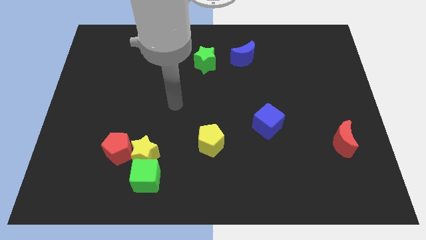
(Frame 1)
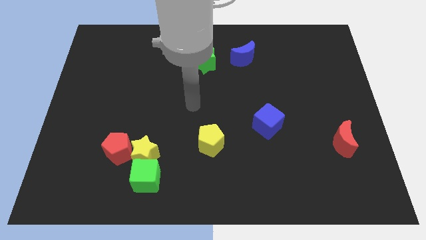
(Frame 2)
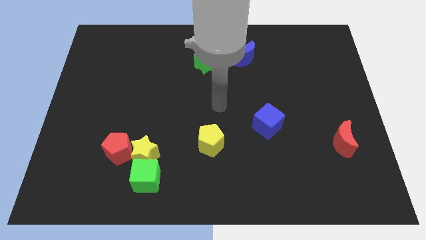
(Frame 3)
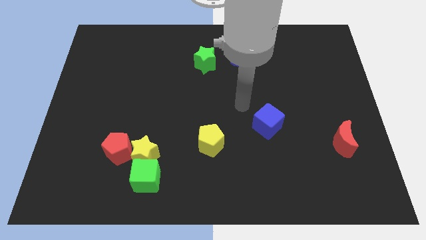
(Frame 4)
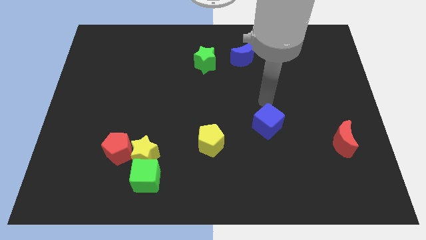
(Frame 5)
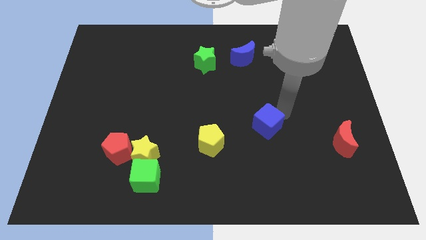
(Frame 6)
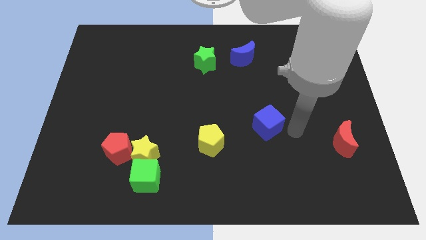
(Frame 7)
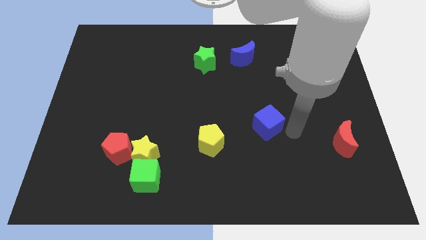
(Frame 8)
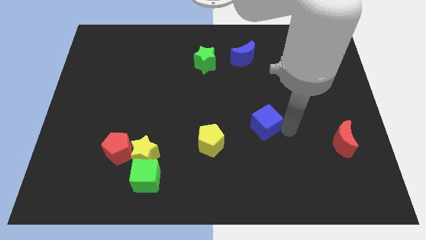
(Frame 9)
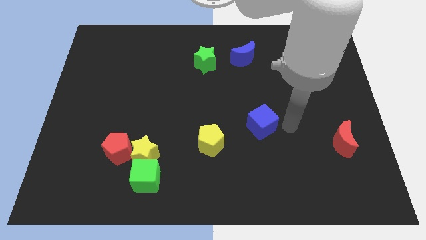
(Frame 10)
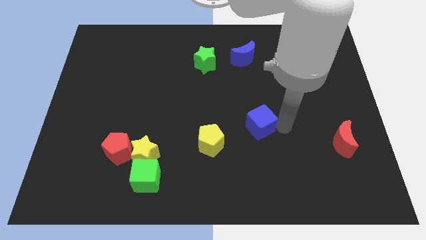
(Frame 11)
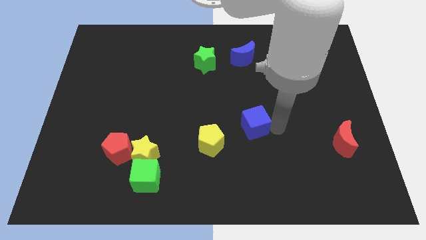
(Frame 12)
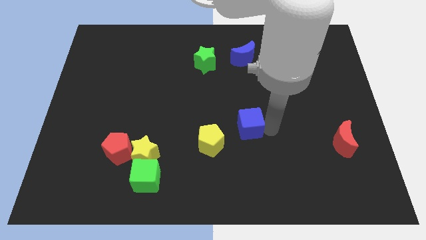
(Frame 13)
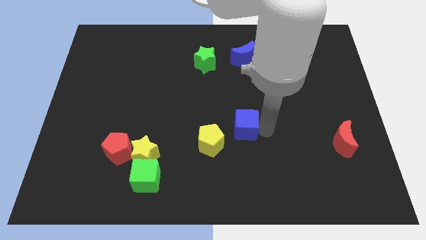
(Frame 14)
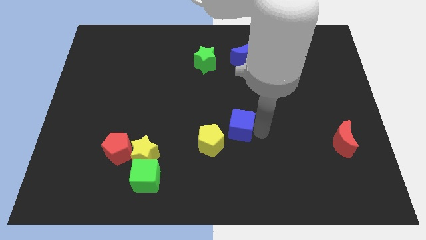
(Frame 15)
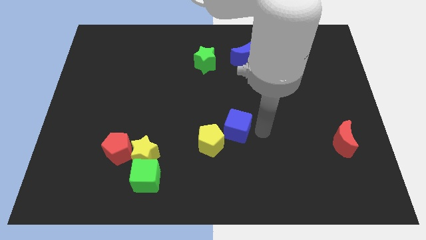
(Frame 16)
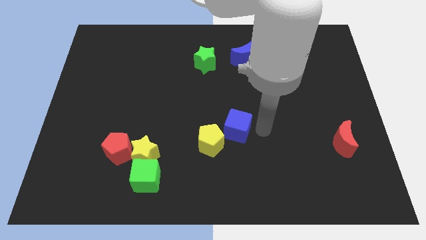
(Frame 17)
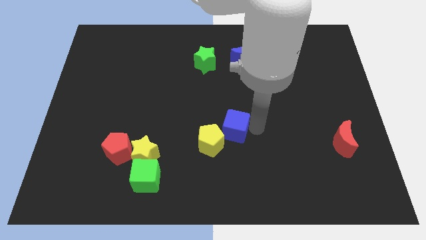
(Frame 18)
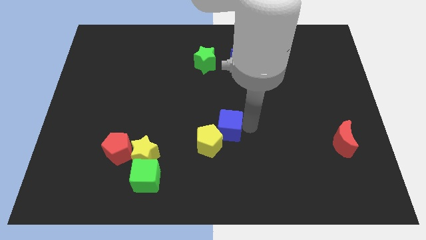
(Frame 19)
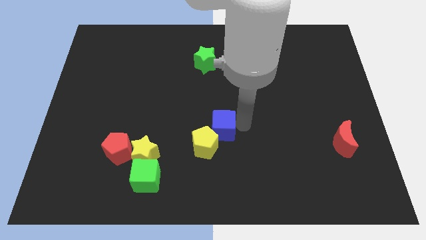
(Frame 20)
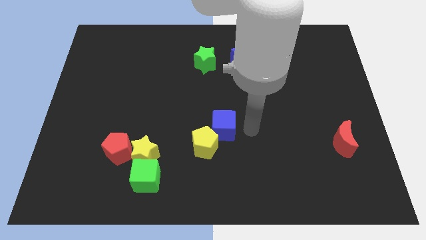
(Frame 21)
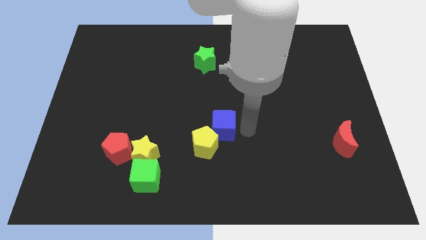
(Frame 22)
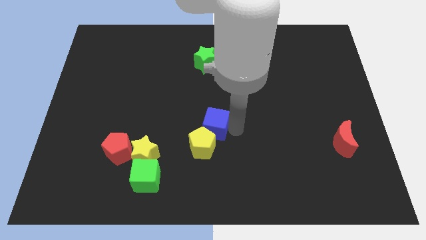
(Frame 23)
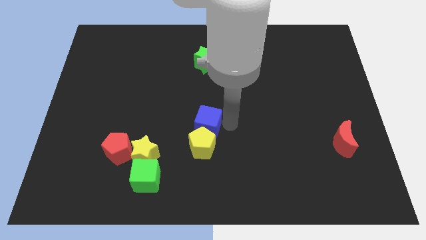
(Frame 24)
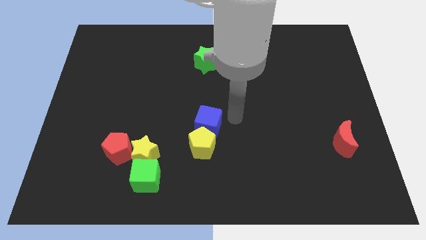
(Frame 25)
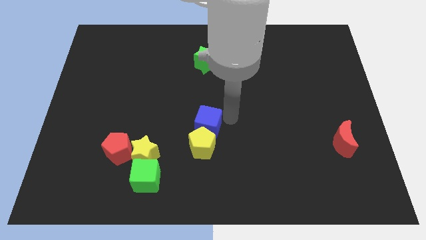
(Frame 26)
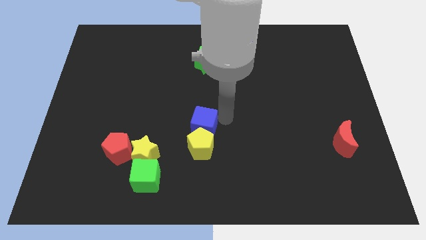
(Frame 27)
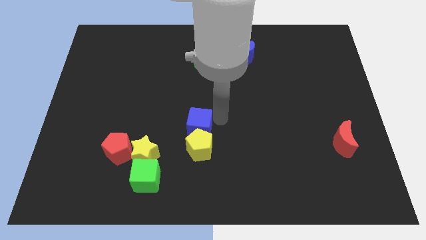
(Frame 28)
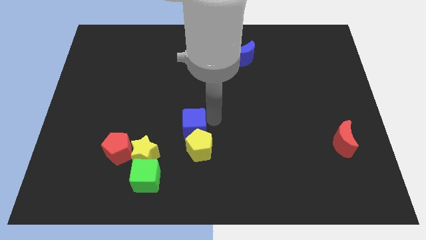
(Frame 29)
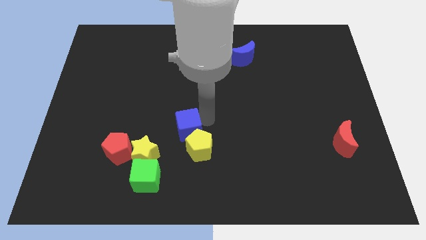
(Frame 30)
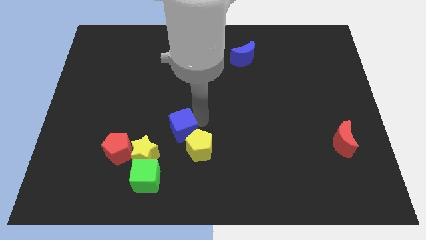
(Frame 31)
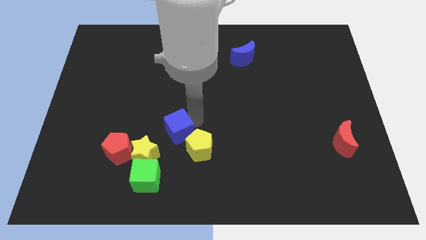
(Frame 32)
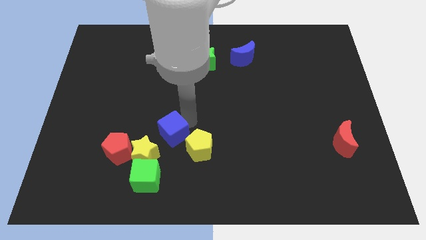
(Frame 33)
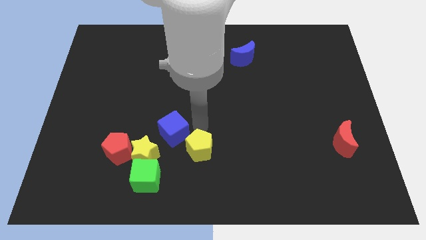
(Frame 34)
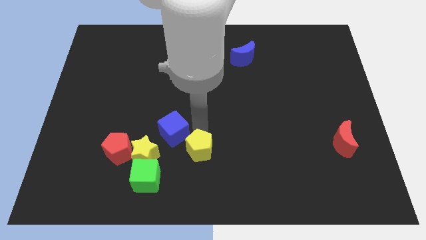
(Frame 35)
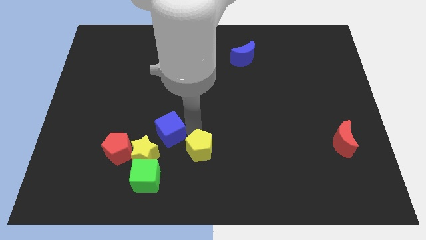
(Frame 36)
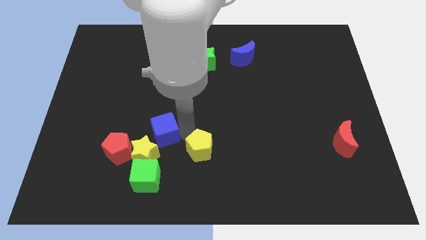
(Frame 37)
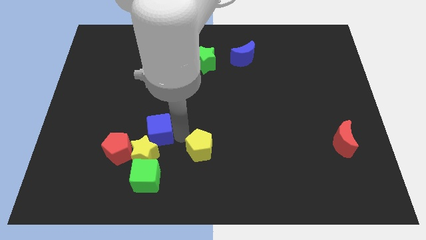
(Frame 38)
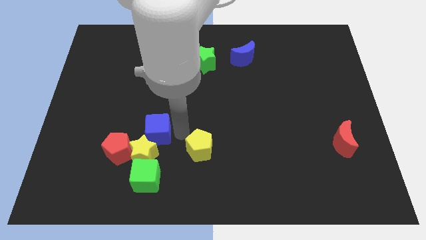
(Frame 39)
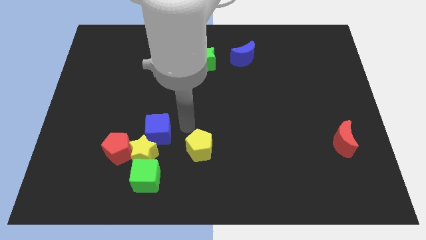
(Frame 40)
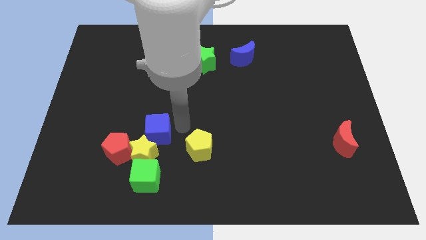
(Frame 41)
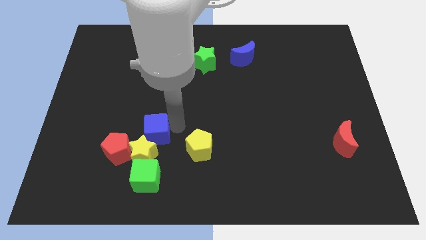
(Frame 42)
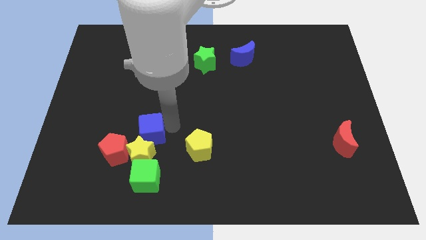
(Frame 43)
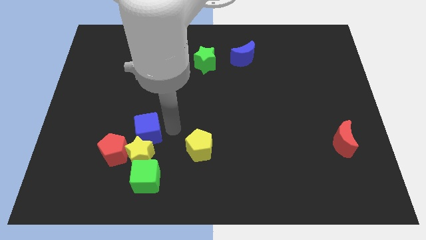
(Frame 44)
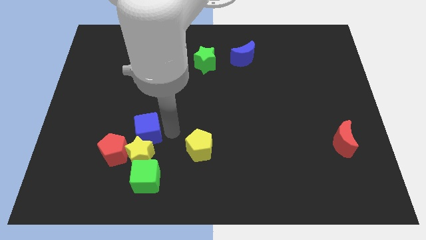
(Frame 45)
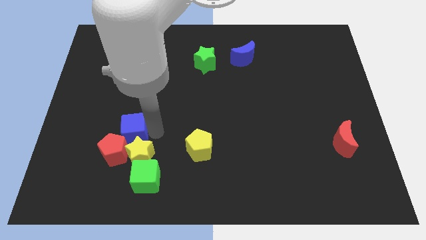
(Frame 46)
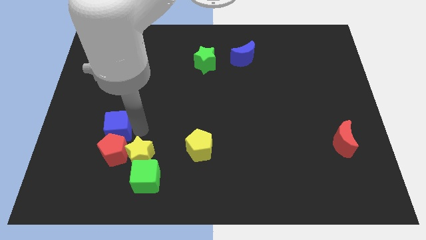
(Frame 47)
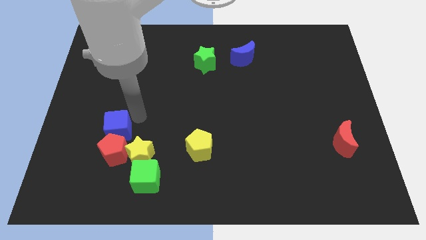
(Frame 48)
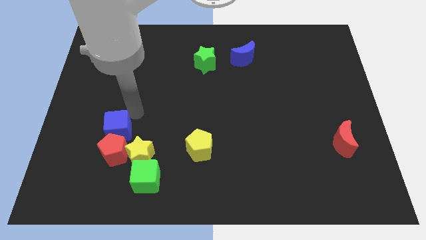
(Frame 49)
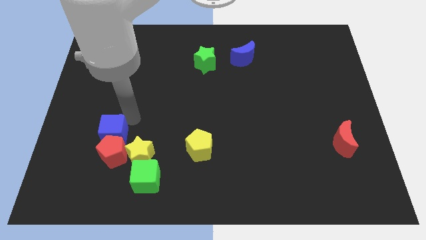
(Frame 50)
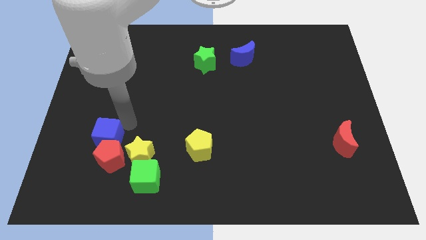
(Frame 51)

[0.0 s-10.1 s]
push the blue cube to the left side of the yellow star

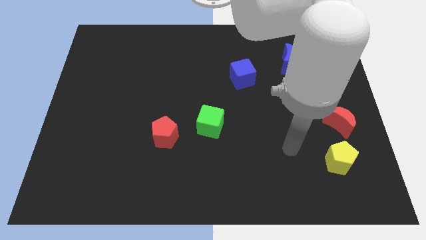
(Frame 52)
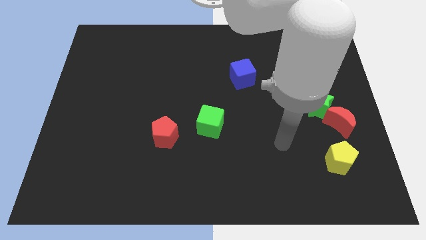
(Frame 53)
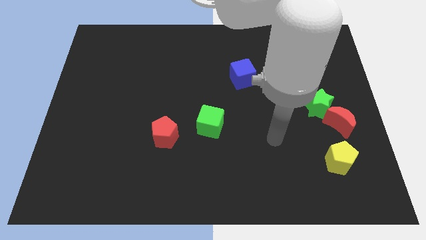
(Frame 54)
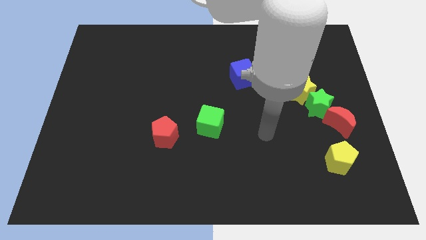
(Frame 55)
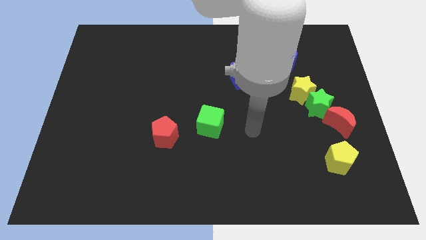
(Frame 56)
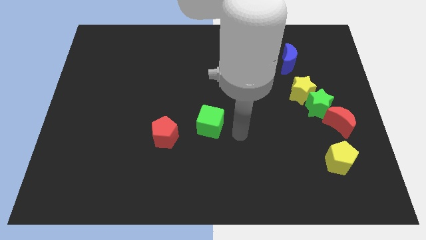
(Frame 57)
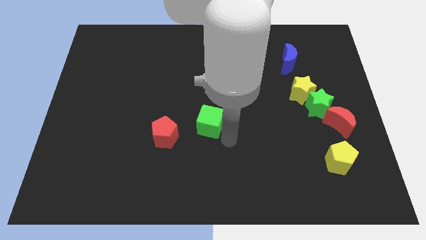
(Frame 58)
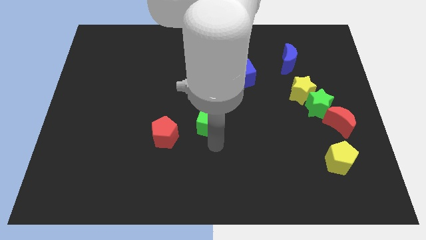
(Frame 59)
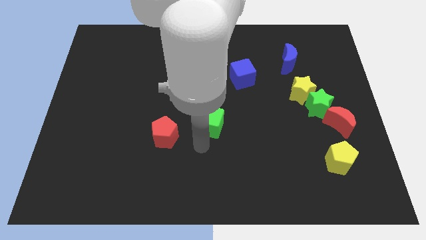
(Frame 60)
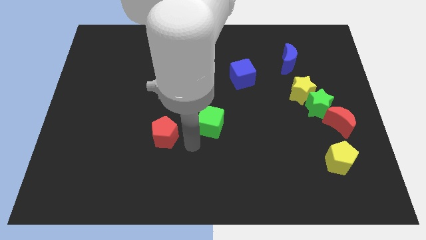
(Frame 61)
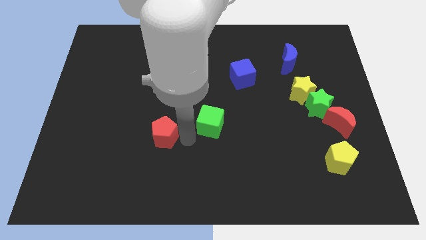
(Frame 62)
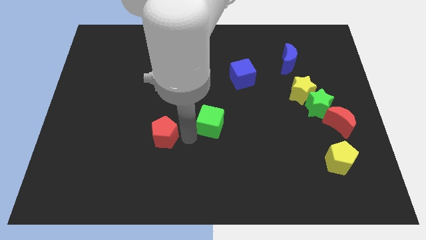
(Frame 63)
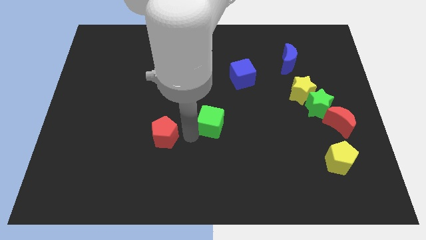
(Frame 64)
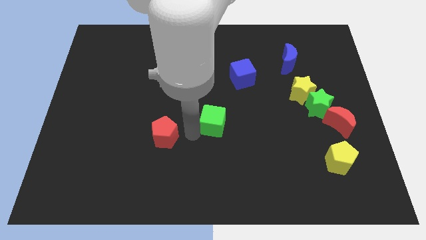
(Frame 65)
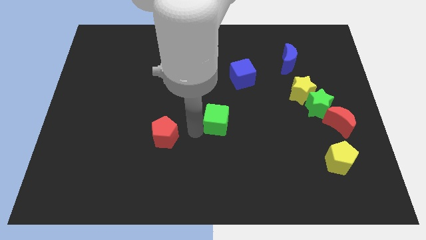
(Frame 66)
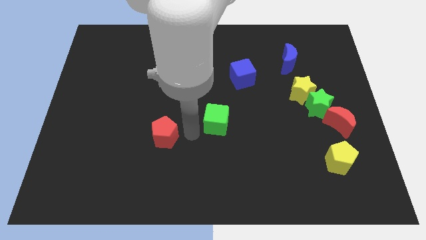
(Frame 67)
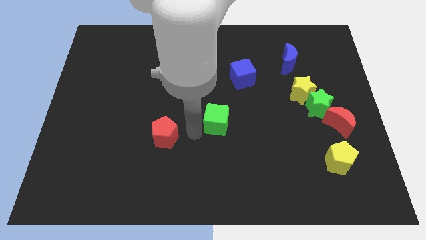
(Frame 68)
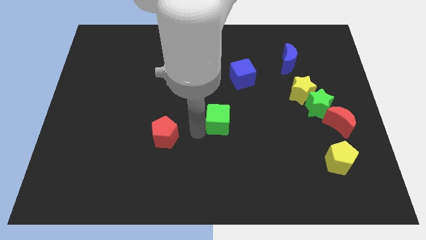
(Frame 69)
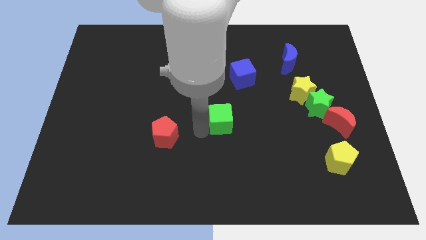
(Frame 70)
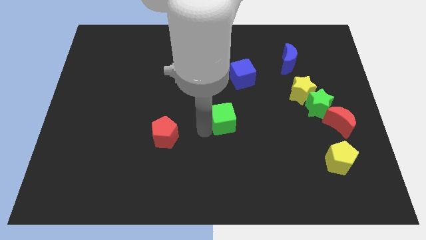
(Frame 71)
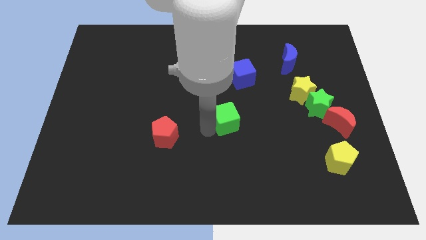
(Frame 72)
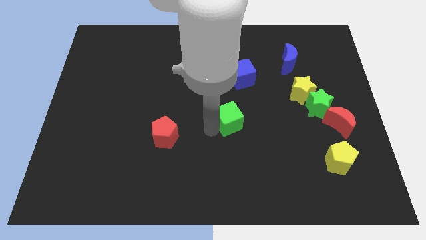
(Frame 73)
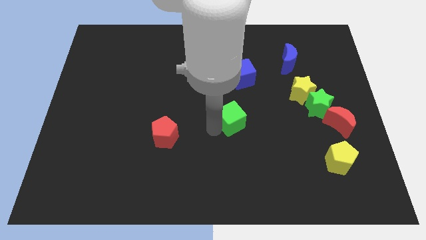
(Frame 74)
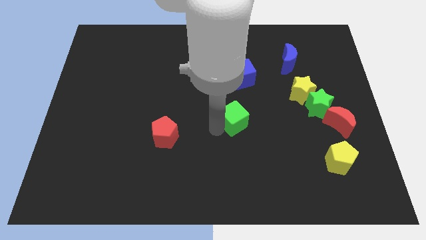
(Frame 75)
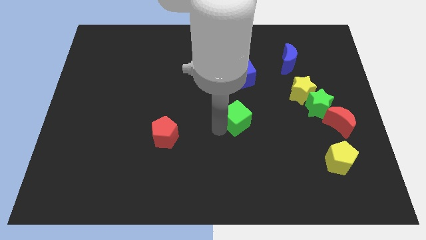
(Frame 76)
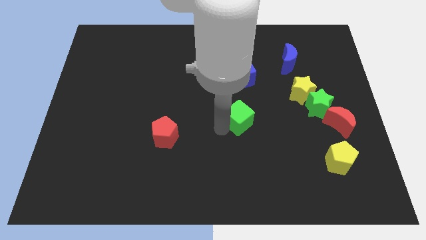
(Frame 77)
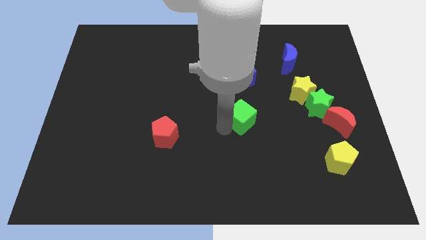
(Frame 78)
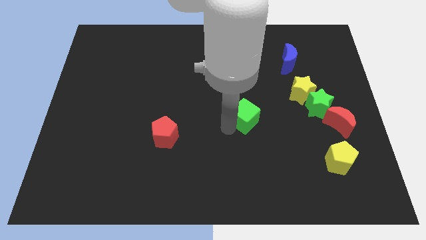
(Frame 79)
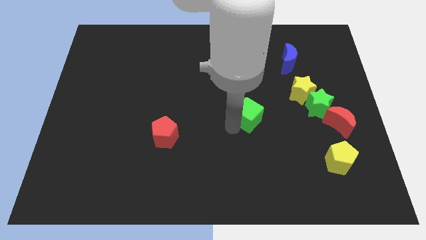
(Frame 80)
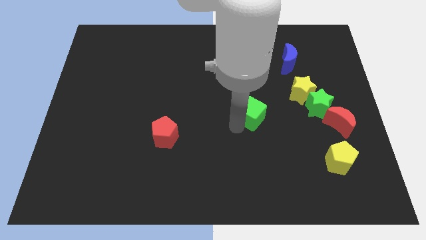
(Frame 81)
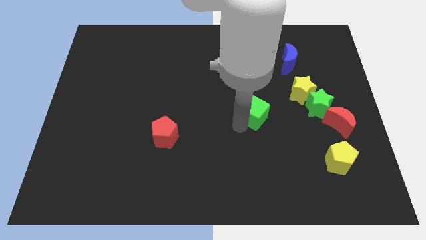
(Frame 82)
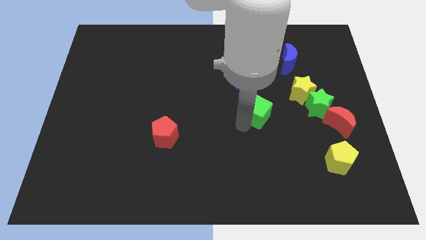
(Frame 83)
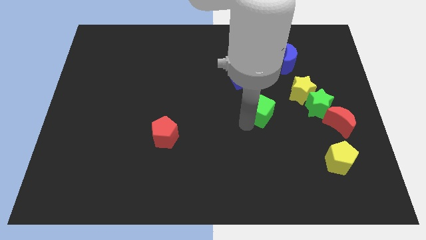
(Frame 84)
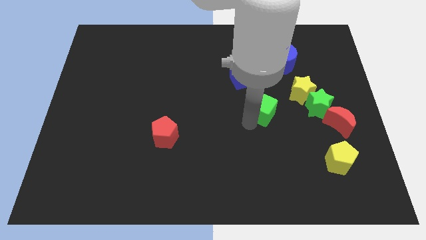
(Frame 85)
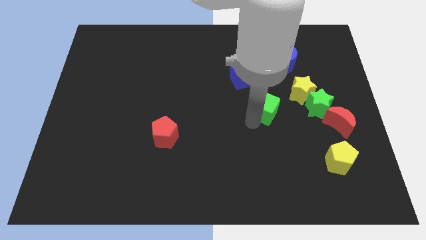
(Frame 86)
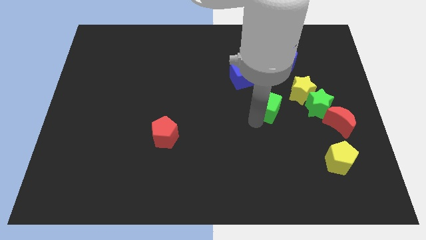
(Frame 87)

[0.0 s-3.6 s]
push the green cube to the left of the yellow star
